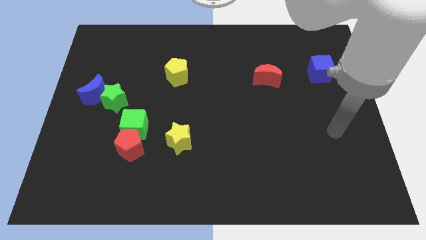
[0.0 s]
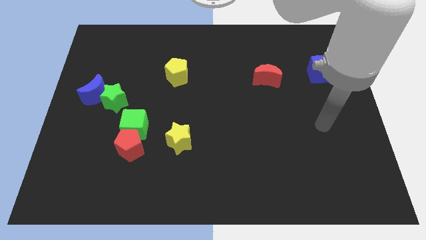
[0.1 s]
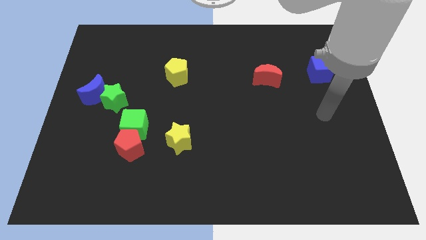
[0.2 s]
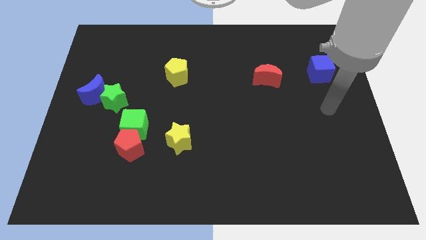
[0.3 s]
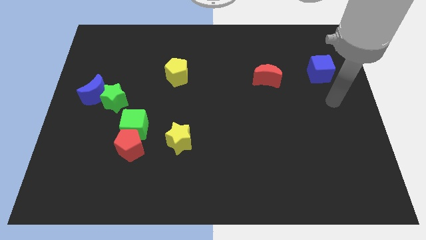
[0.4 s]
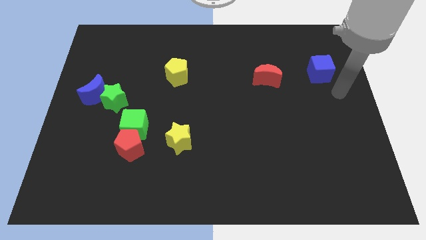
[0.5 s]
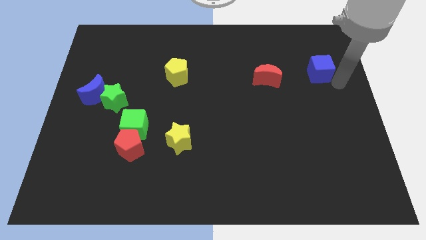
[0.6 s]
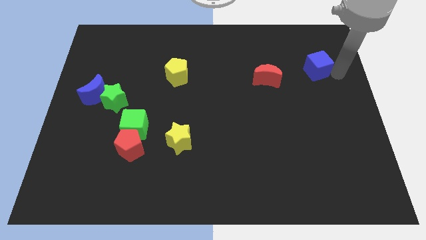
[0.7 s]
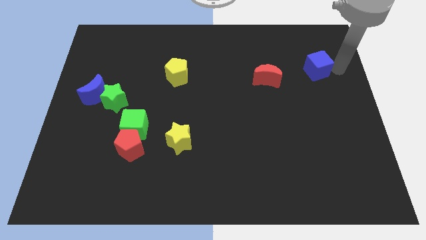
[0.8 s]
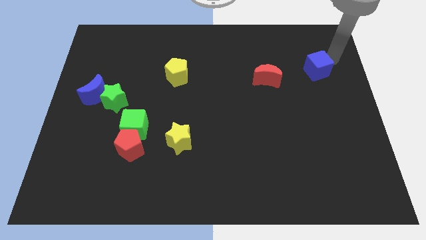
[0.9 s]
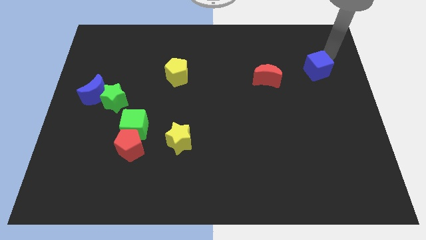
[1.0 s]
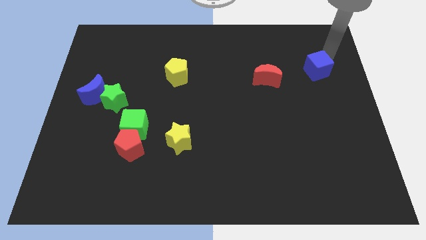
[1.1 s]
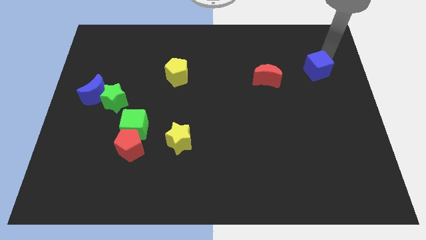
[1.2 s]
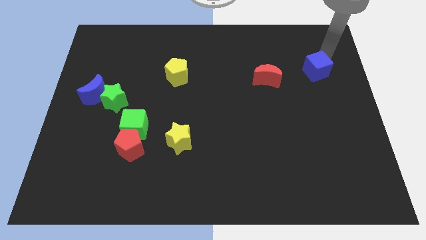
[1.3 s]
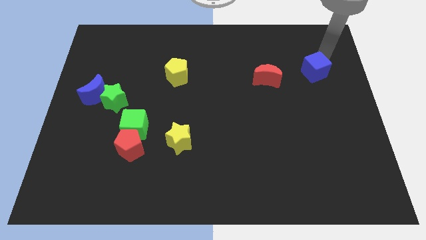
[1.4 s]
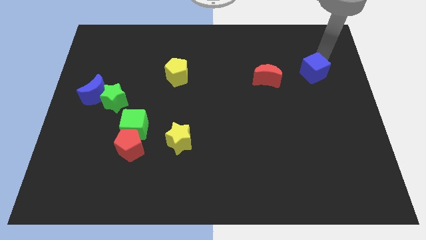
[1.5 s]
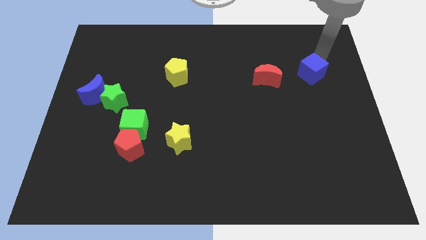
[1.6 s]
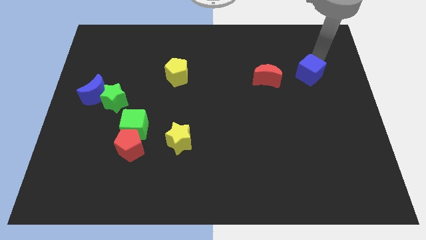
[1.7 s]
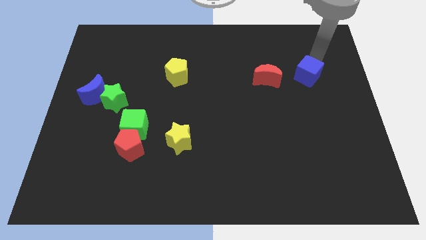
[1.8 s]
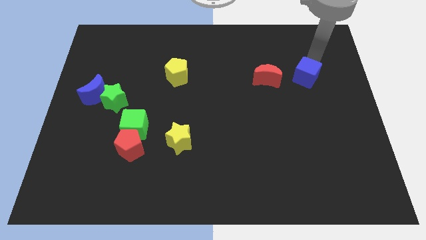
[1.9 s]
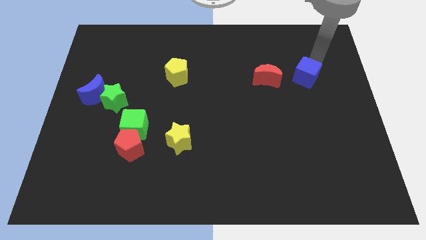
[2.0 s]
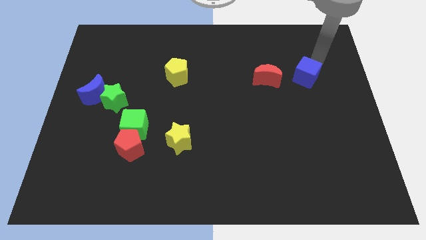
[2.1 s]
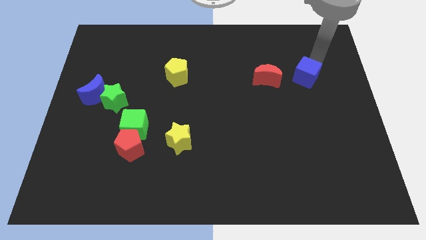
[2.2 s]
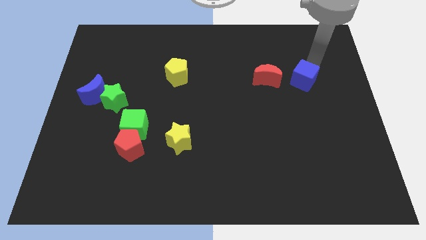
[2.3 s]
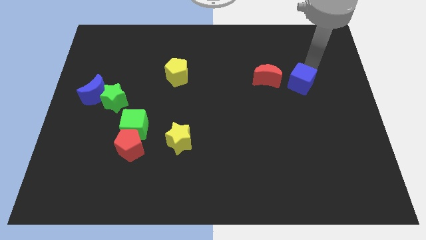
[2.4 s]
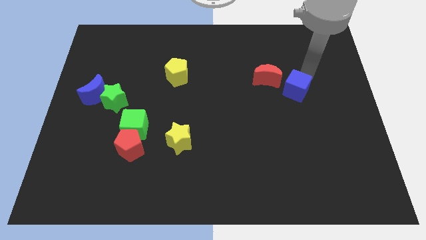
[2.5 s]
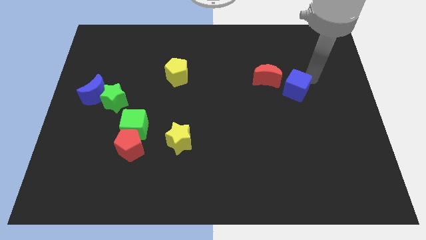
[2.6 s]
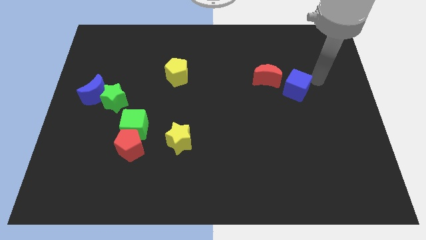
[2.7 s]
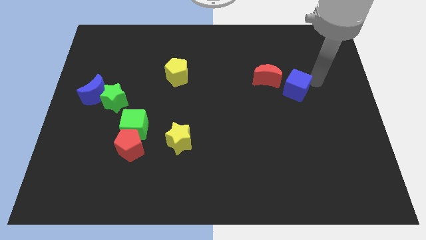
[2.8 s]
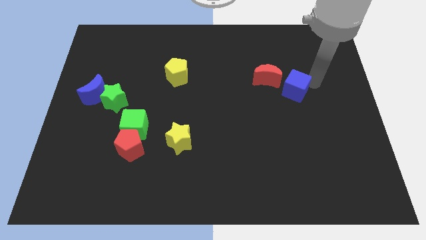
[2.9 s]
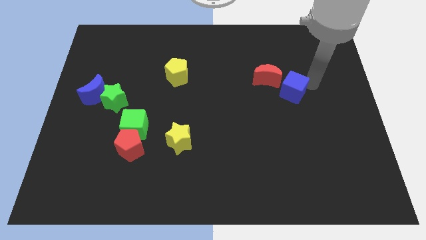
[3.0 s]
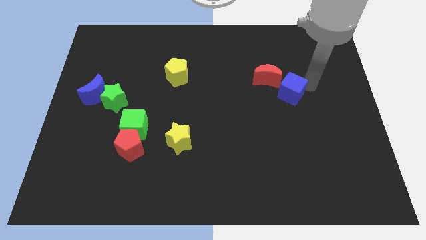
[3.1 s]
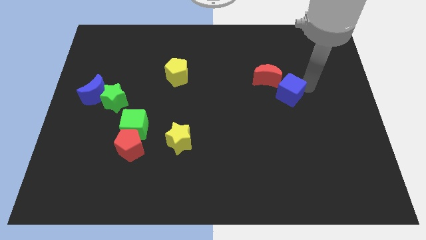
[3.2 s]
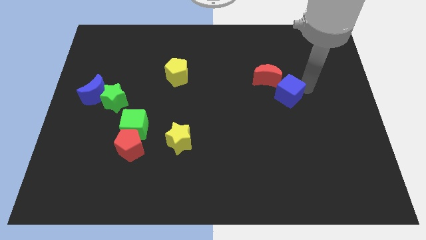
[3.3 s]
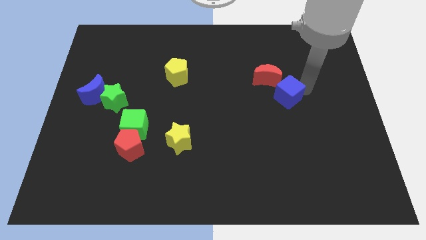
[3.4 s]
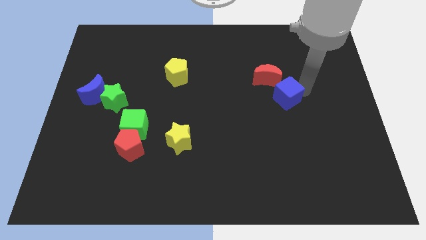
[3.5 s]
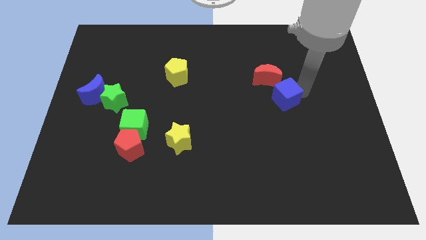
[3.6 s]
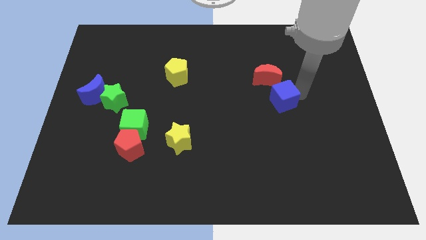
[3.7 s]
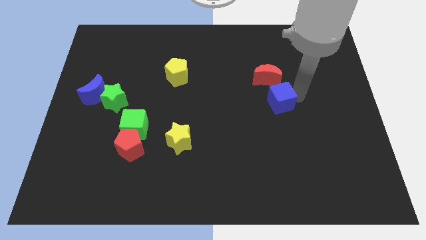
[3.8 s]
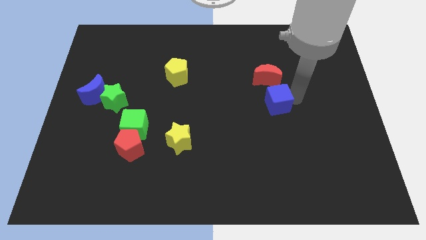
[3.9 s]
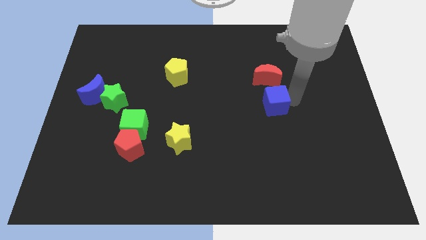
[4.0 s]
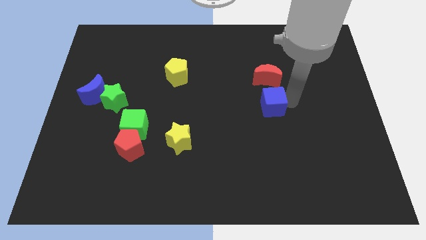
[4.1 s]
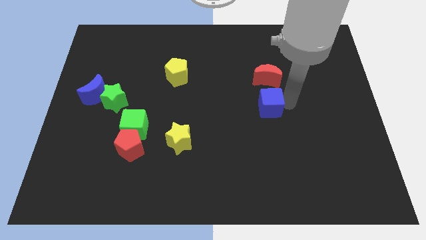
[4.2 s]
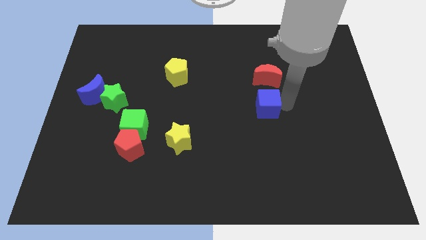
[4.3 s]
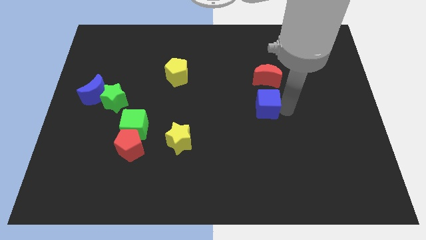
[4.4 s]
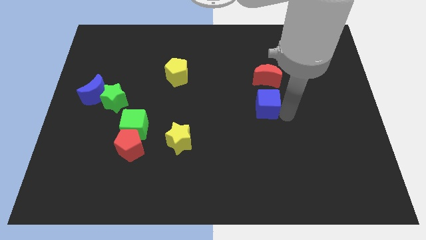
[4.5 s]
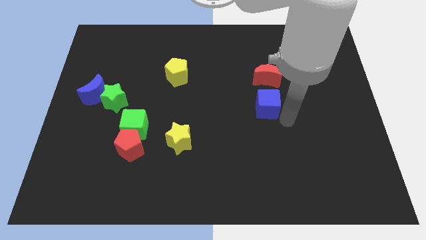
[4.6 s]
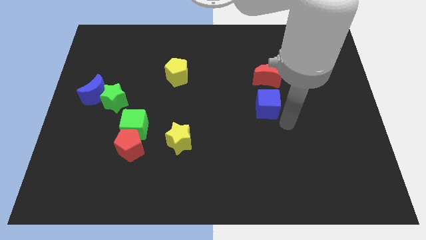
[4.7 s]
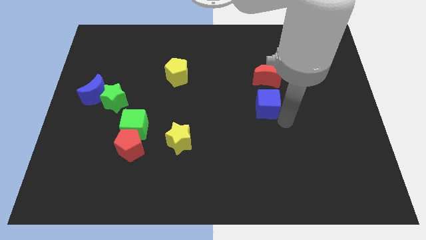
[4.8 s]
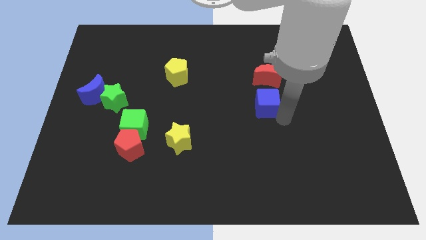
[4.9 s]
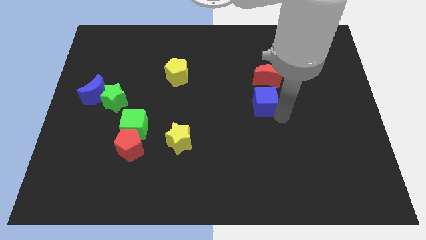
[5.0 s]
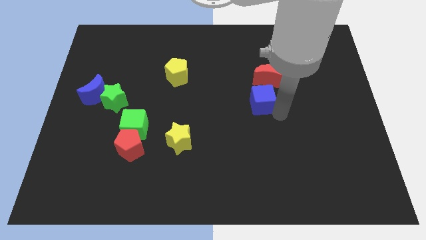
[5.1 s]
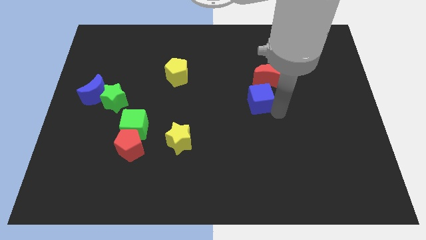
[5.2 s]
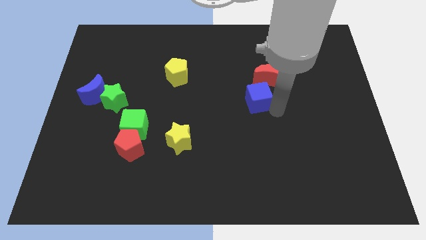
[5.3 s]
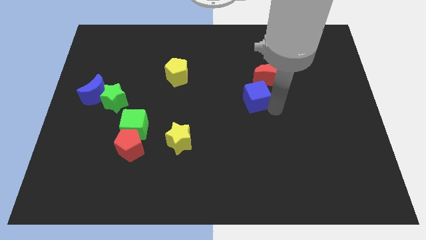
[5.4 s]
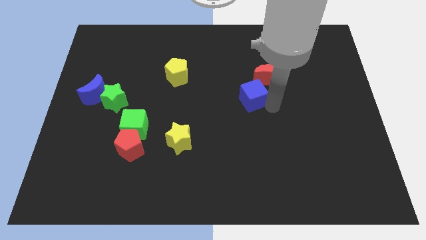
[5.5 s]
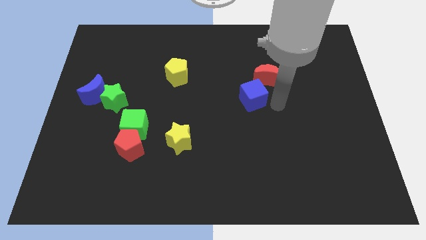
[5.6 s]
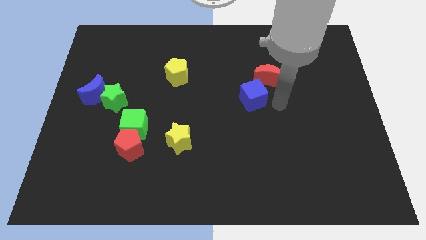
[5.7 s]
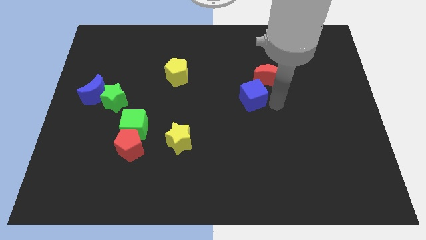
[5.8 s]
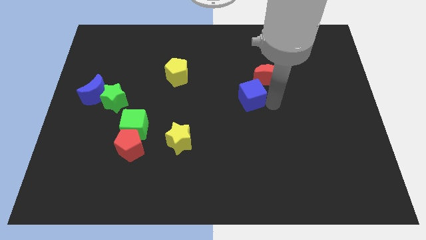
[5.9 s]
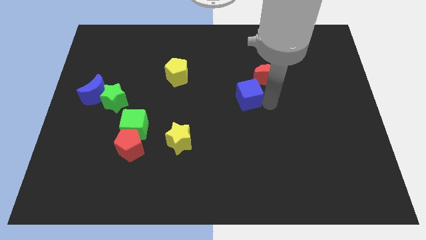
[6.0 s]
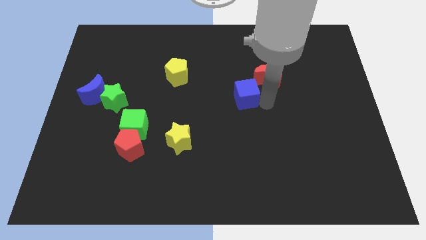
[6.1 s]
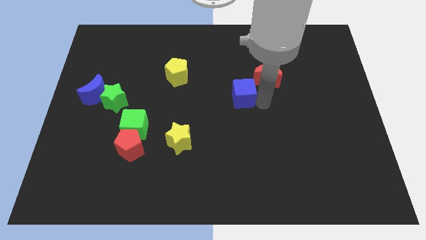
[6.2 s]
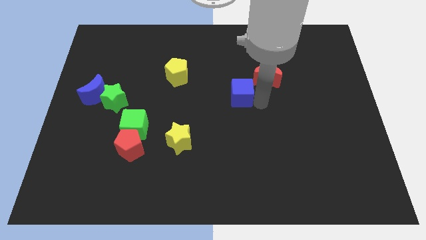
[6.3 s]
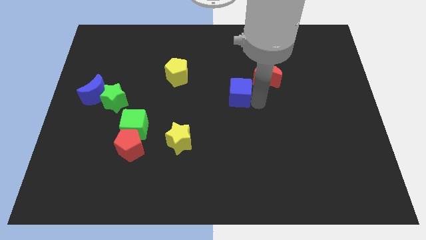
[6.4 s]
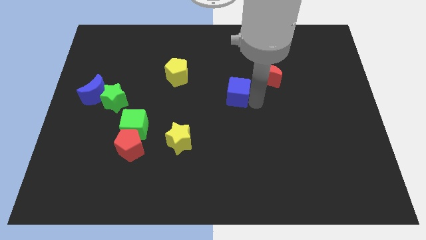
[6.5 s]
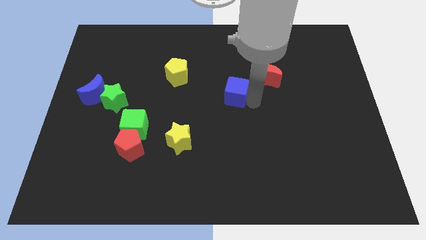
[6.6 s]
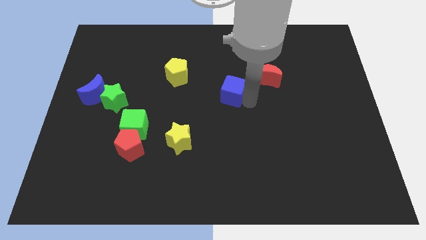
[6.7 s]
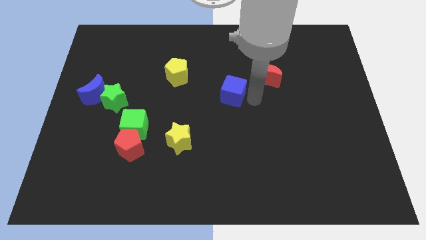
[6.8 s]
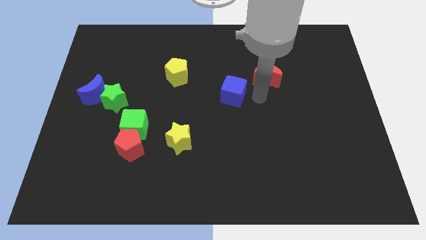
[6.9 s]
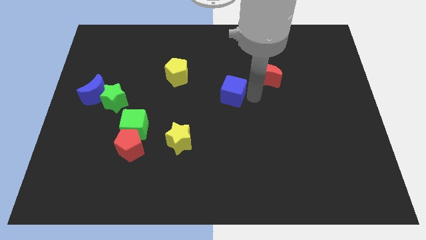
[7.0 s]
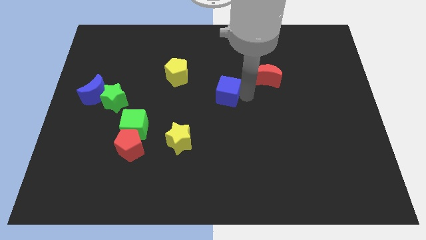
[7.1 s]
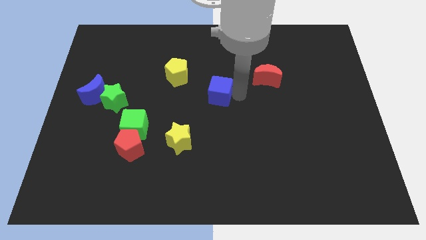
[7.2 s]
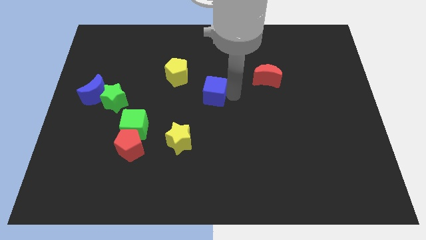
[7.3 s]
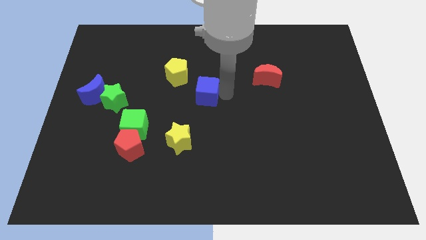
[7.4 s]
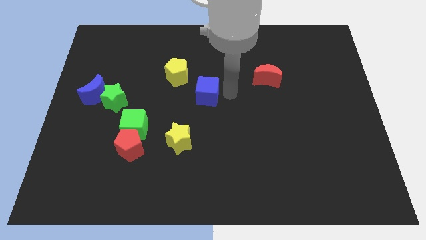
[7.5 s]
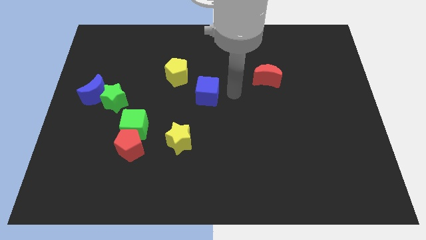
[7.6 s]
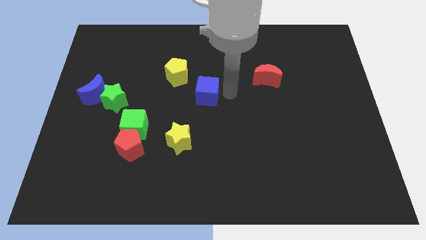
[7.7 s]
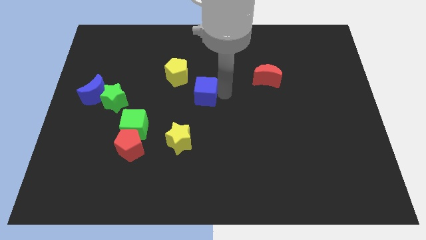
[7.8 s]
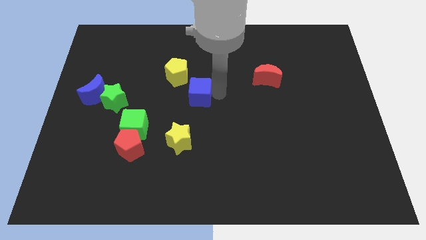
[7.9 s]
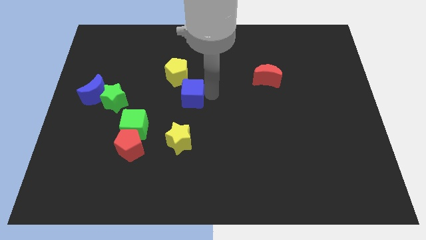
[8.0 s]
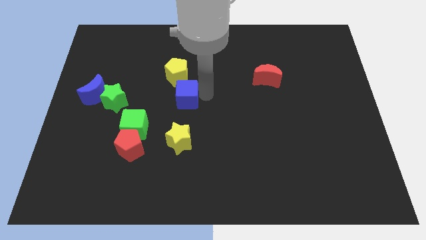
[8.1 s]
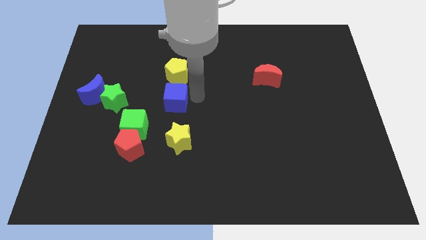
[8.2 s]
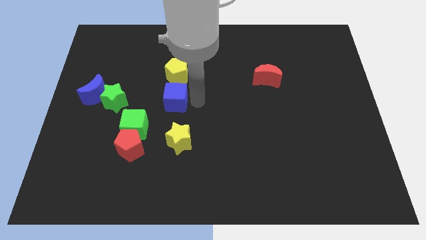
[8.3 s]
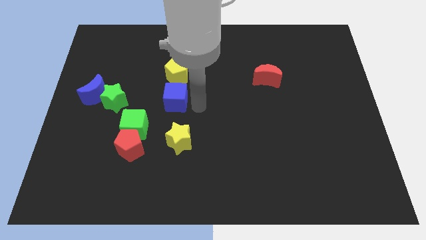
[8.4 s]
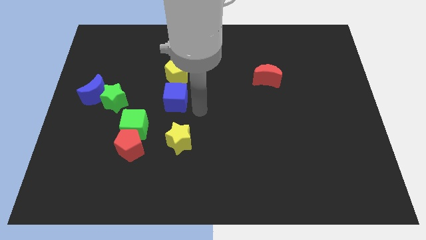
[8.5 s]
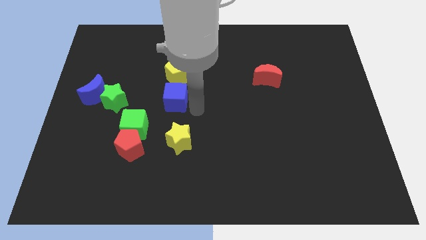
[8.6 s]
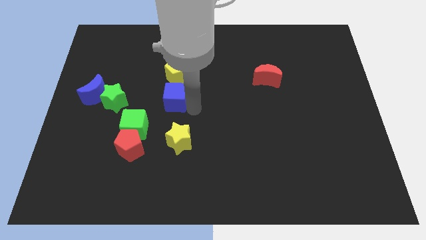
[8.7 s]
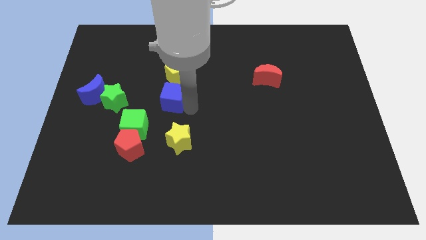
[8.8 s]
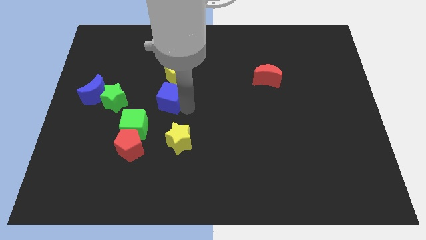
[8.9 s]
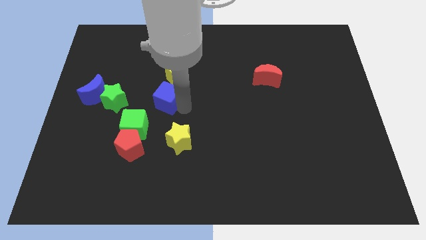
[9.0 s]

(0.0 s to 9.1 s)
push the blue cube diagonally down and to the left of the yellow pentagon
